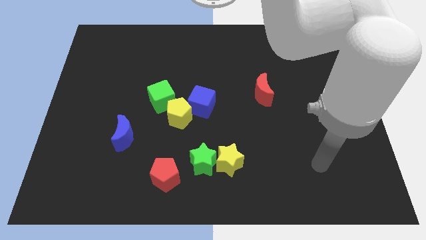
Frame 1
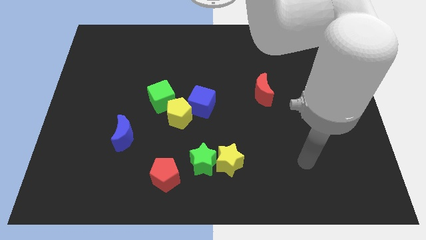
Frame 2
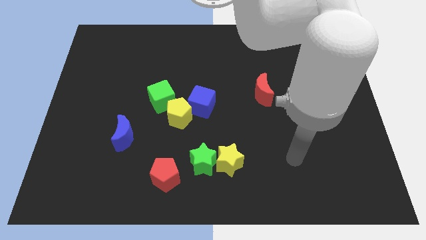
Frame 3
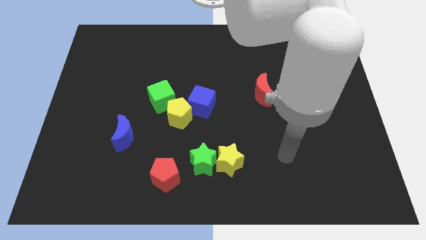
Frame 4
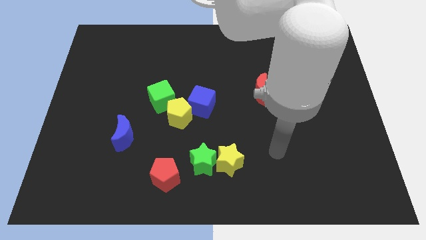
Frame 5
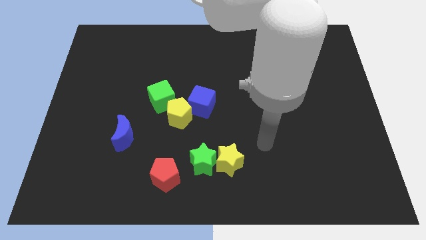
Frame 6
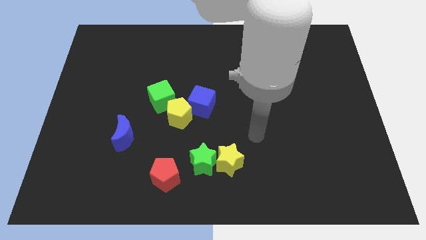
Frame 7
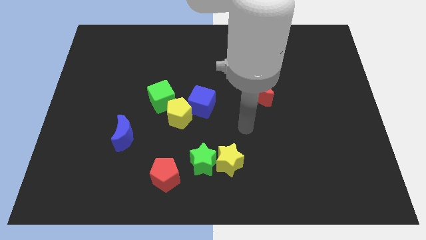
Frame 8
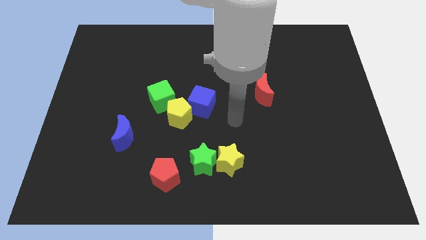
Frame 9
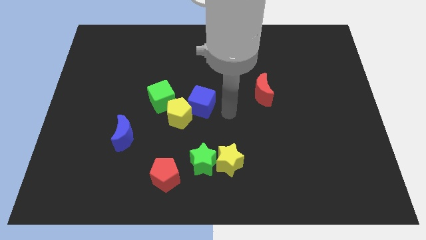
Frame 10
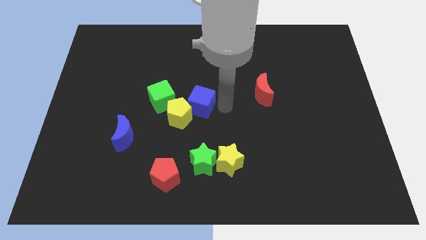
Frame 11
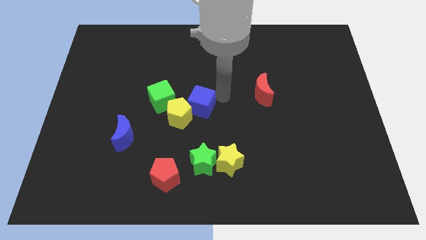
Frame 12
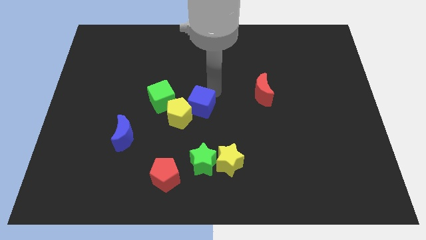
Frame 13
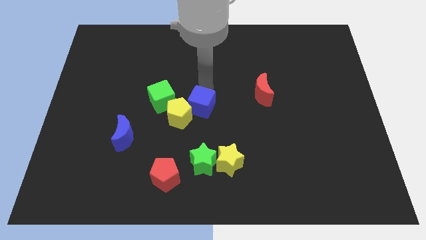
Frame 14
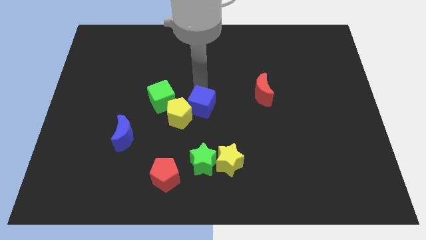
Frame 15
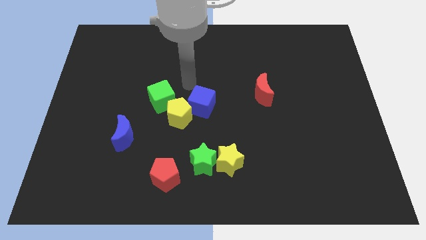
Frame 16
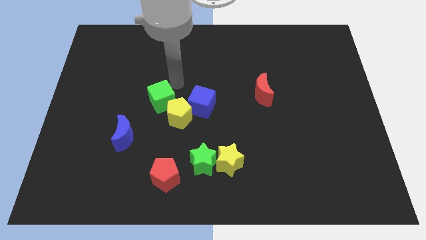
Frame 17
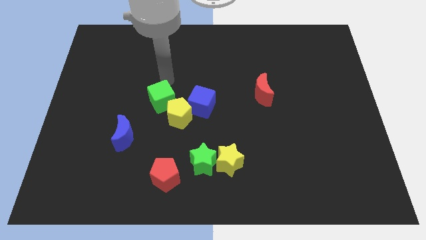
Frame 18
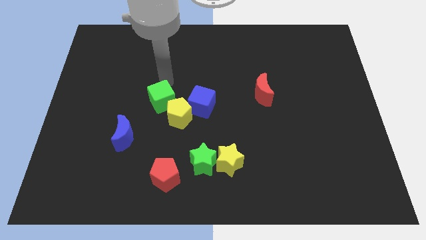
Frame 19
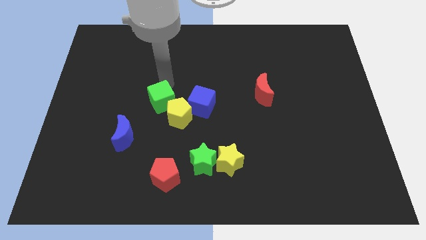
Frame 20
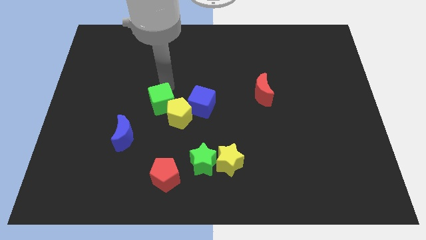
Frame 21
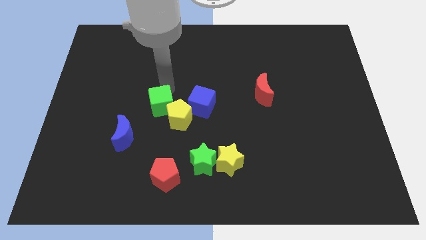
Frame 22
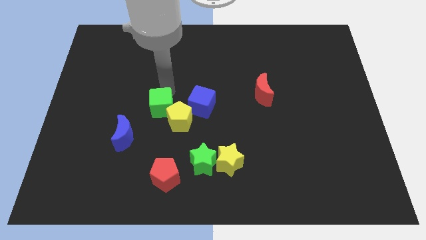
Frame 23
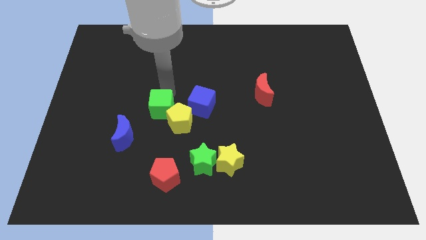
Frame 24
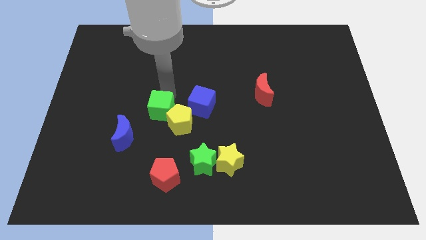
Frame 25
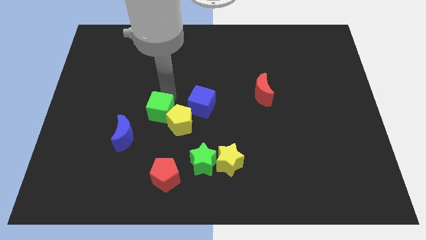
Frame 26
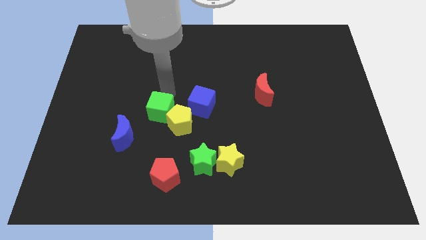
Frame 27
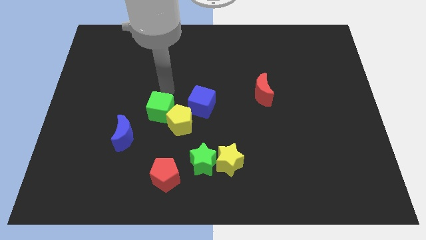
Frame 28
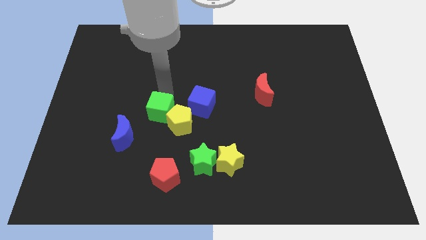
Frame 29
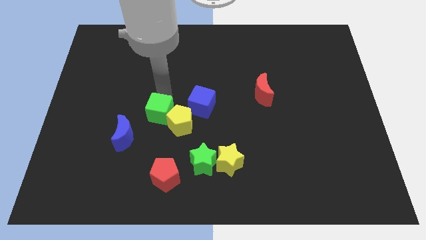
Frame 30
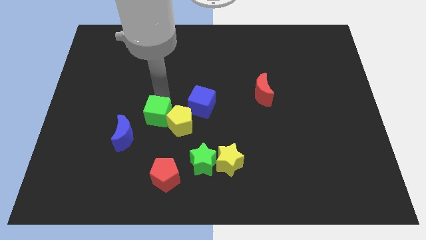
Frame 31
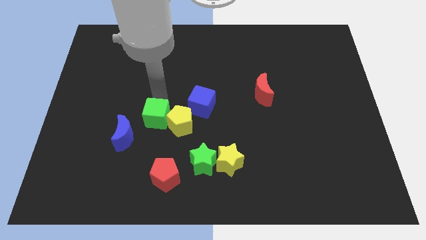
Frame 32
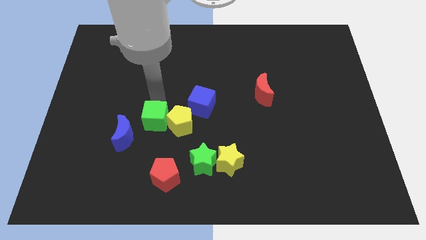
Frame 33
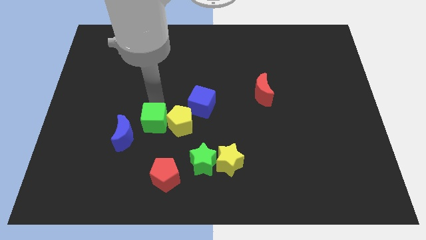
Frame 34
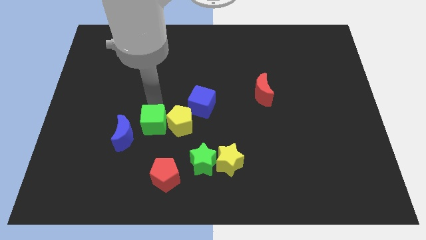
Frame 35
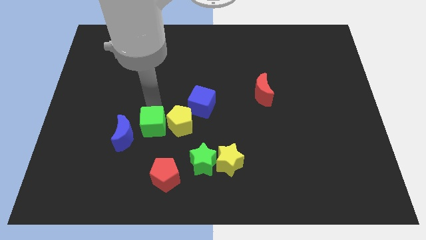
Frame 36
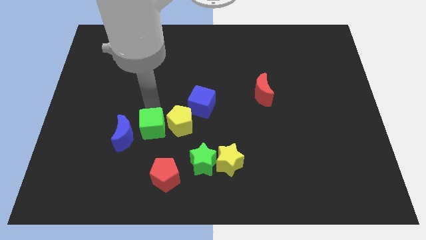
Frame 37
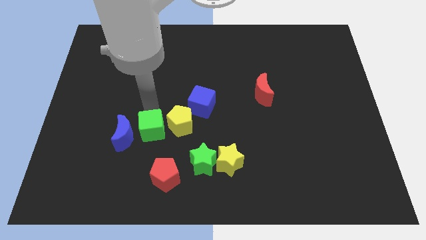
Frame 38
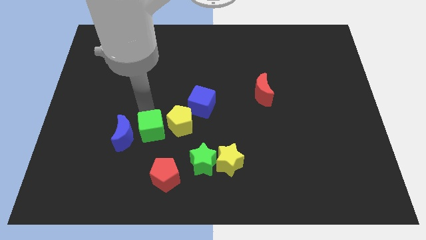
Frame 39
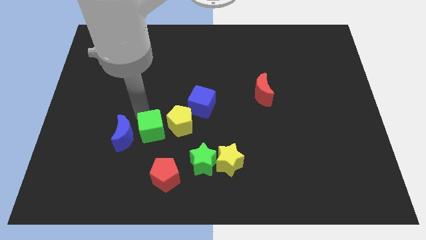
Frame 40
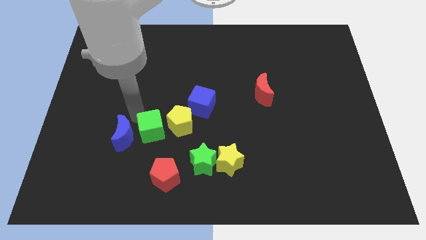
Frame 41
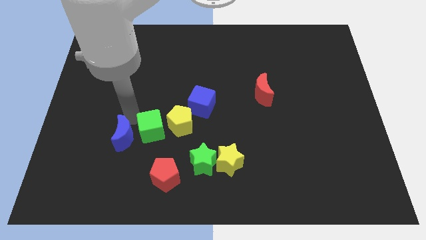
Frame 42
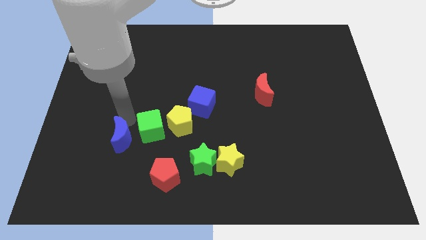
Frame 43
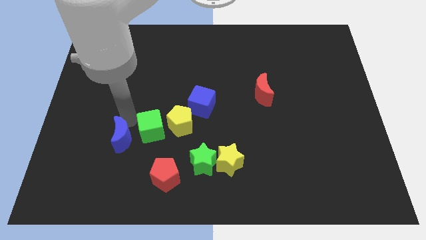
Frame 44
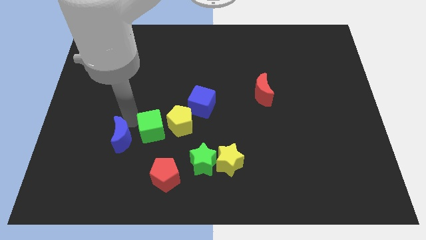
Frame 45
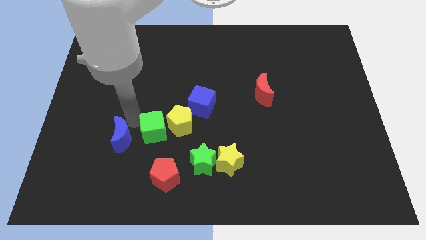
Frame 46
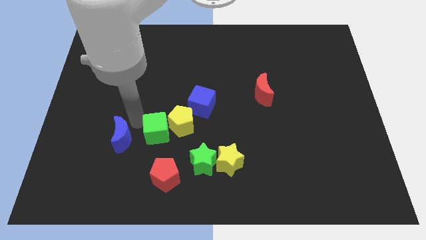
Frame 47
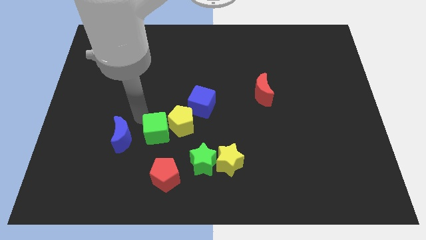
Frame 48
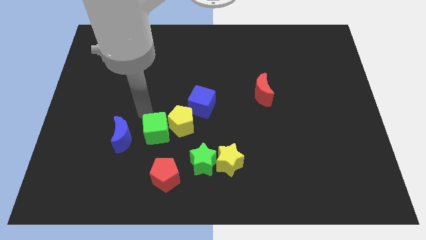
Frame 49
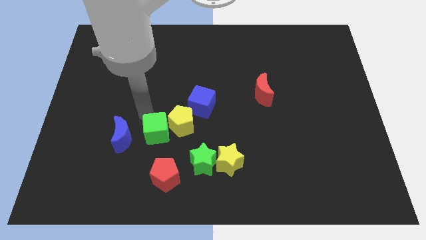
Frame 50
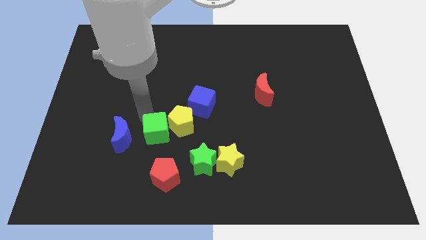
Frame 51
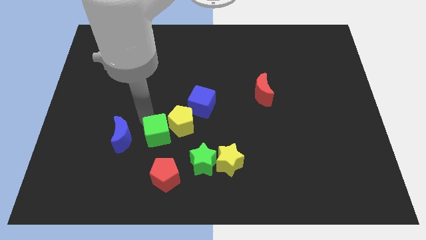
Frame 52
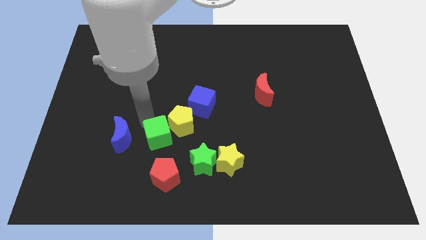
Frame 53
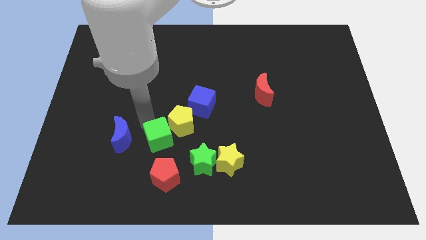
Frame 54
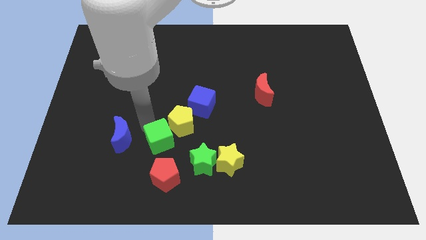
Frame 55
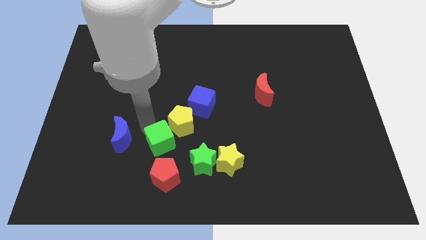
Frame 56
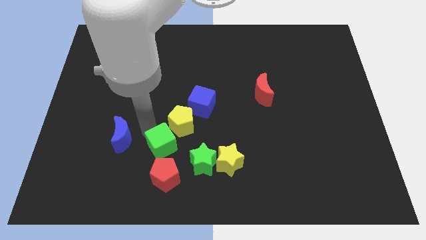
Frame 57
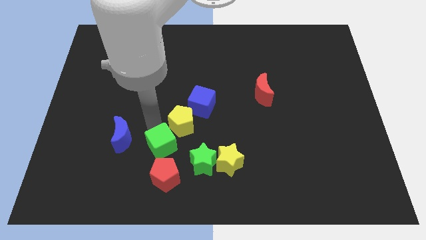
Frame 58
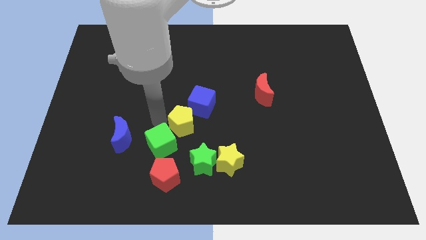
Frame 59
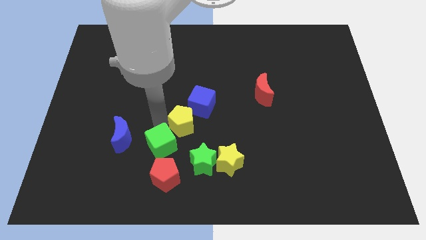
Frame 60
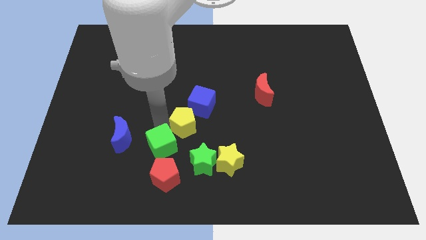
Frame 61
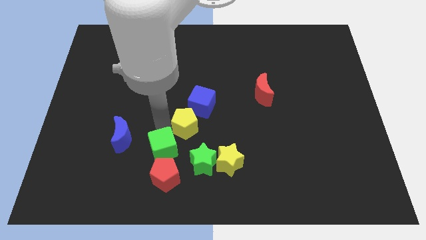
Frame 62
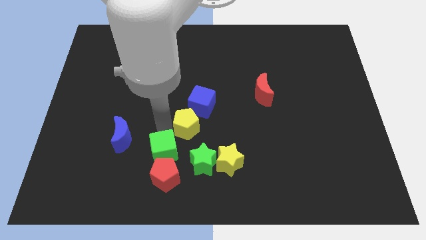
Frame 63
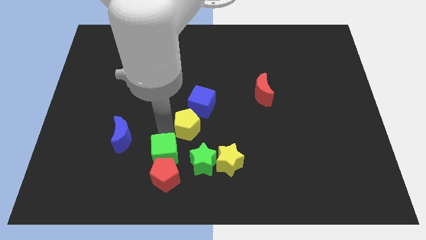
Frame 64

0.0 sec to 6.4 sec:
put the green cube next to the red pentagon

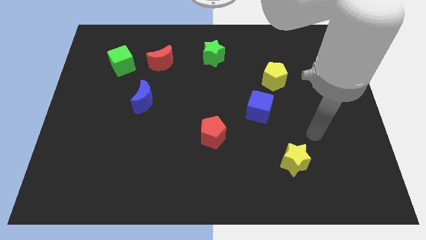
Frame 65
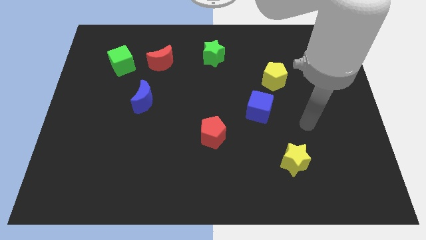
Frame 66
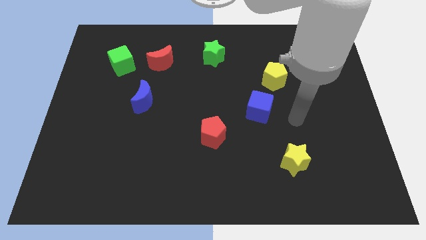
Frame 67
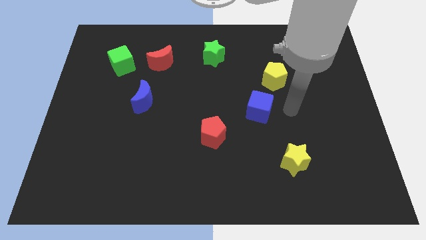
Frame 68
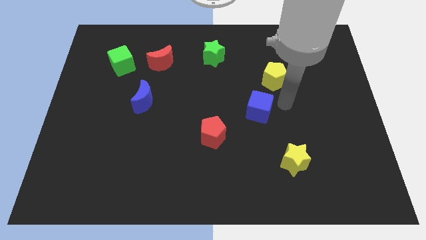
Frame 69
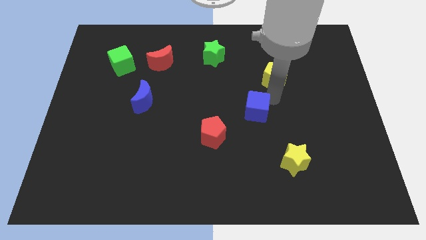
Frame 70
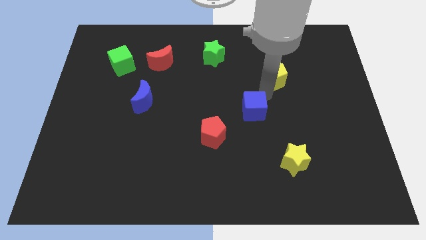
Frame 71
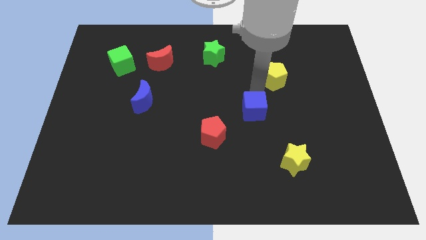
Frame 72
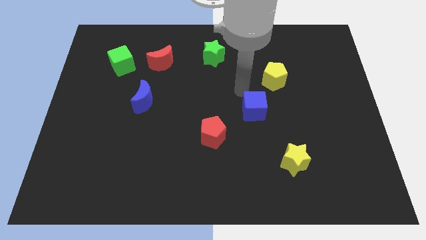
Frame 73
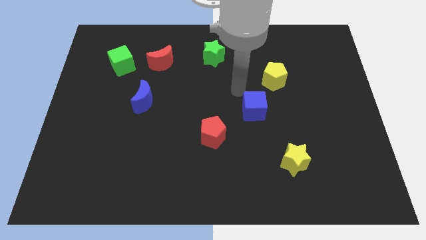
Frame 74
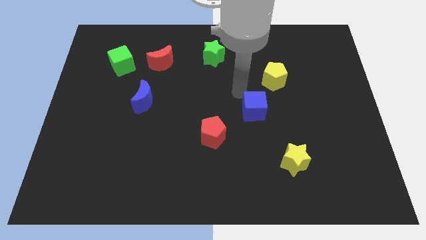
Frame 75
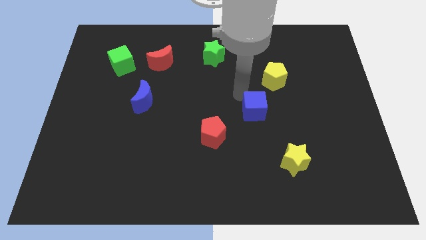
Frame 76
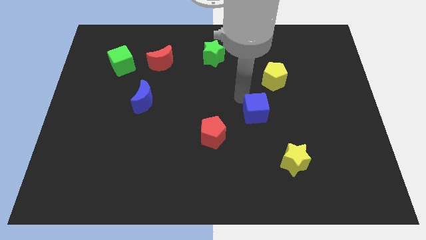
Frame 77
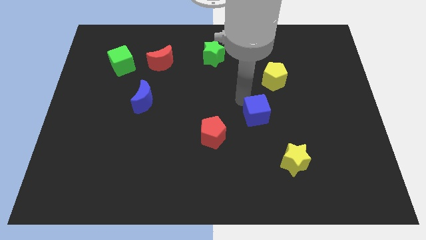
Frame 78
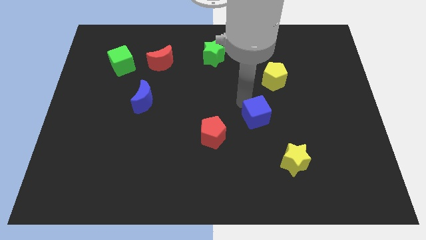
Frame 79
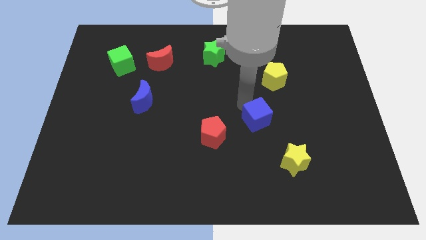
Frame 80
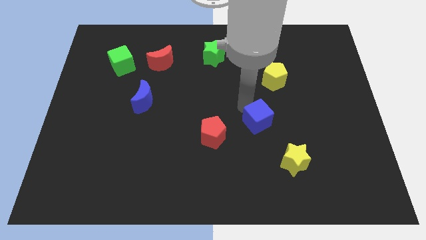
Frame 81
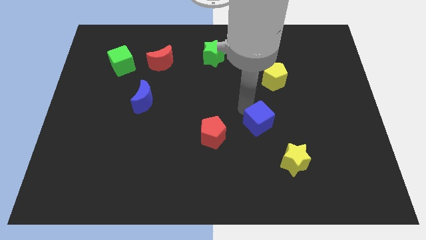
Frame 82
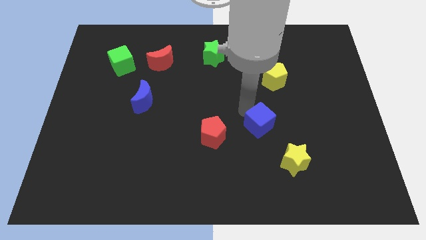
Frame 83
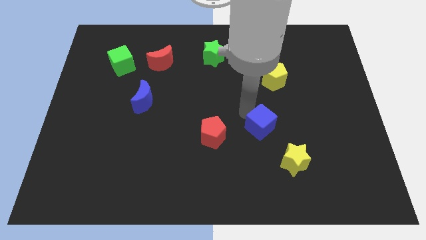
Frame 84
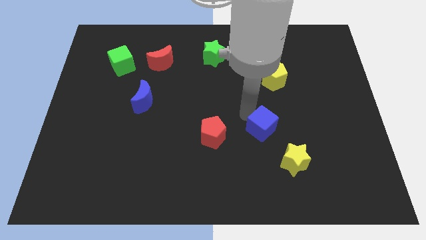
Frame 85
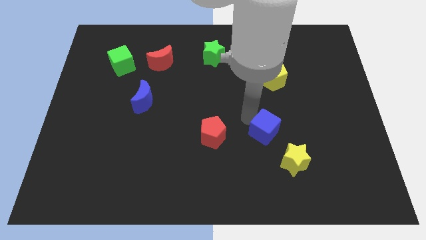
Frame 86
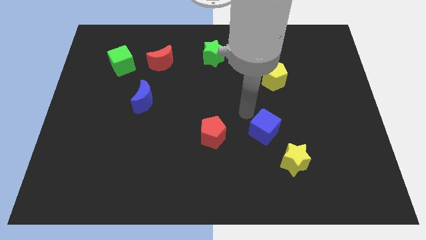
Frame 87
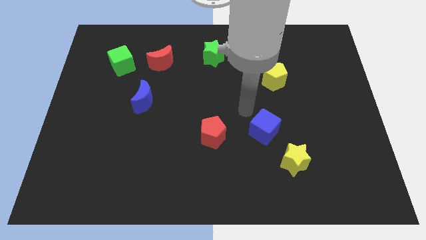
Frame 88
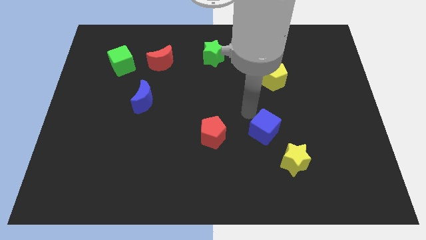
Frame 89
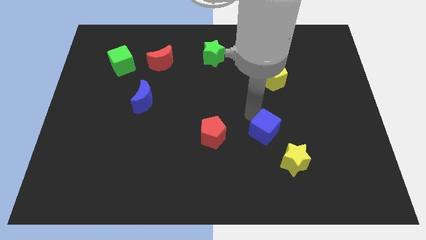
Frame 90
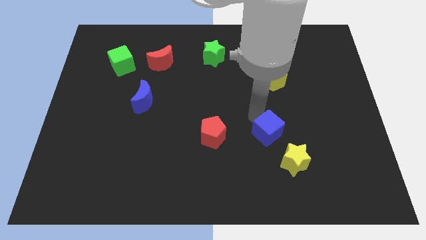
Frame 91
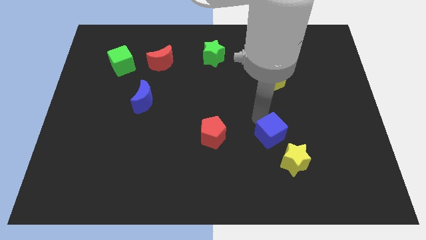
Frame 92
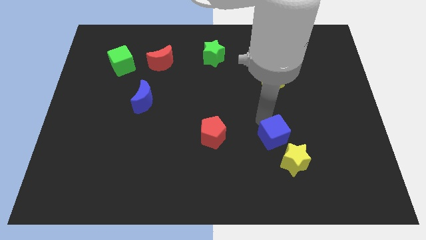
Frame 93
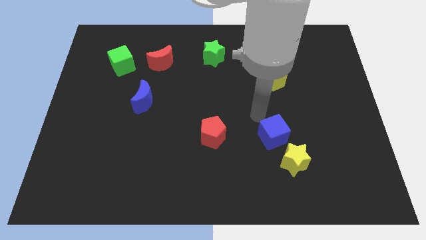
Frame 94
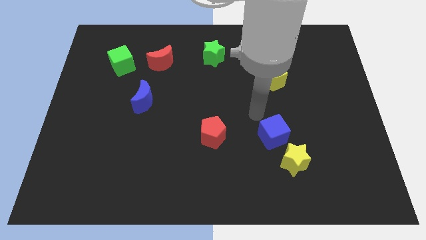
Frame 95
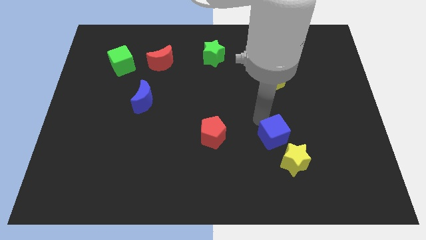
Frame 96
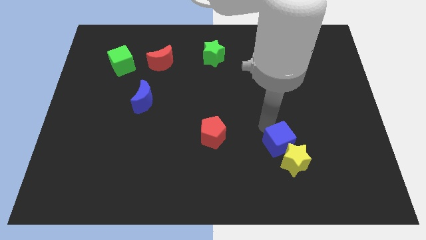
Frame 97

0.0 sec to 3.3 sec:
push the blue cube next to the yellow star
